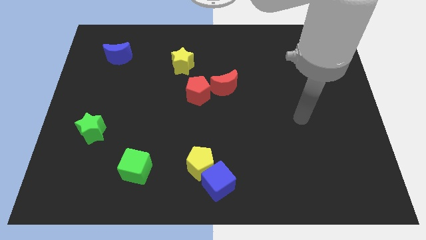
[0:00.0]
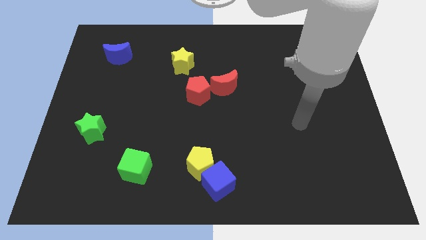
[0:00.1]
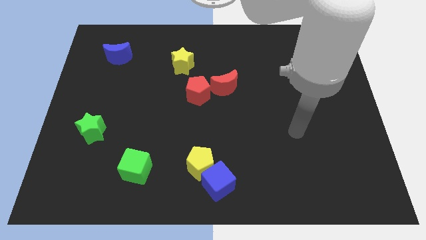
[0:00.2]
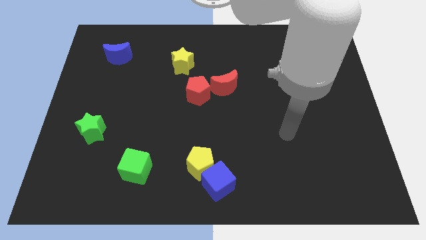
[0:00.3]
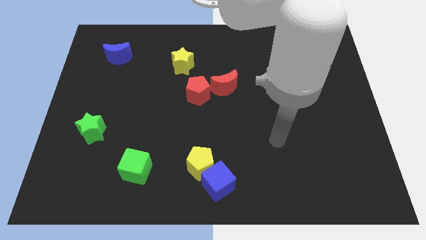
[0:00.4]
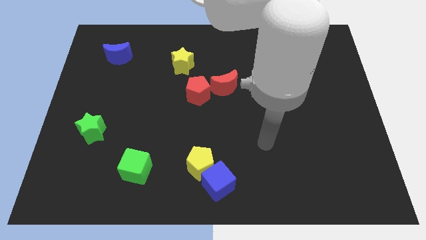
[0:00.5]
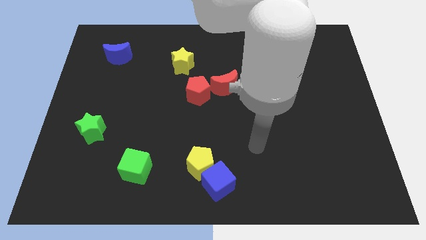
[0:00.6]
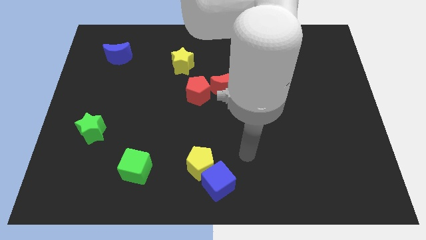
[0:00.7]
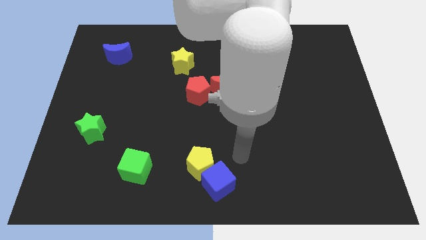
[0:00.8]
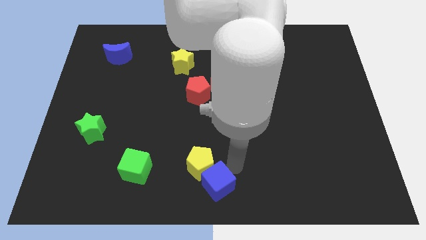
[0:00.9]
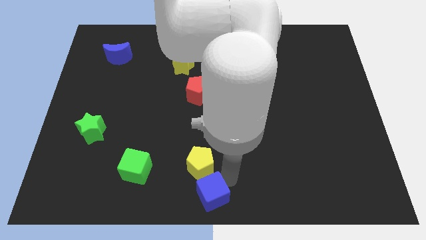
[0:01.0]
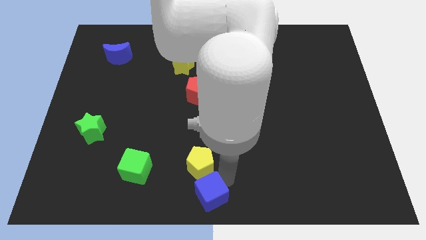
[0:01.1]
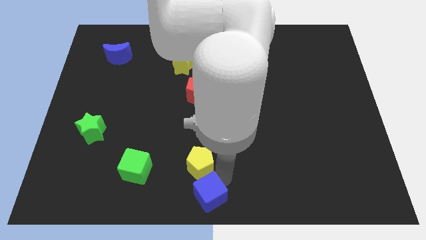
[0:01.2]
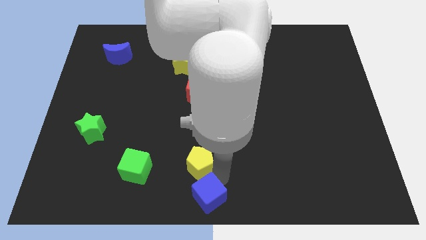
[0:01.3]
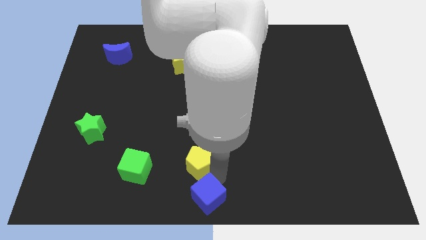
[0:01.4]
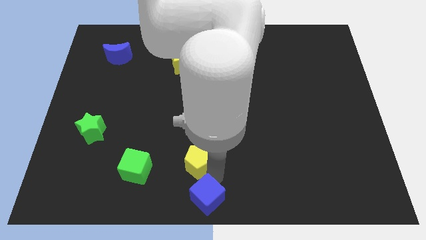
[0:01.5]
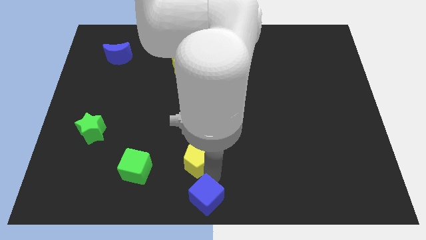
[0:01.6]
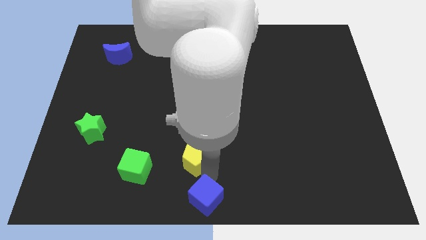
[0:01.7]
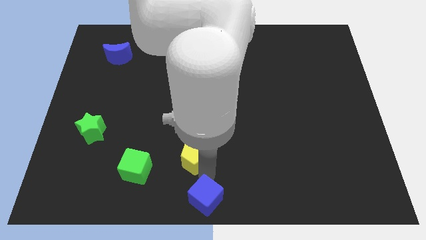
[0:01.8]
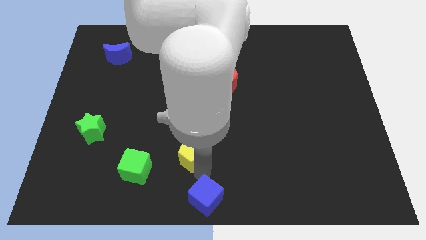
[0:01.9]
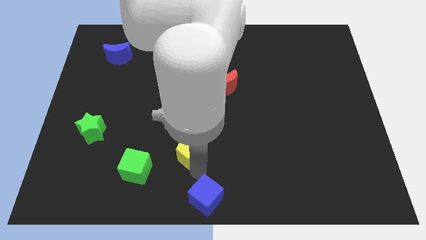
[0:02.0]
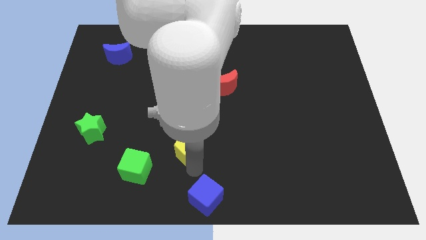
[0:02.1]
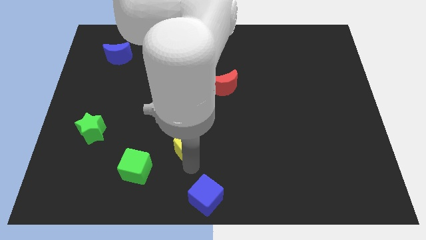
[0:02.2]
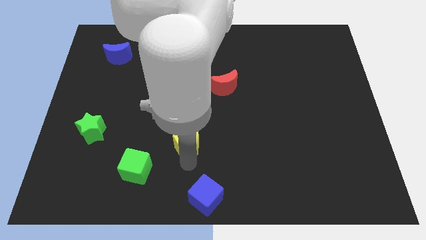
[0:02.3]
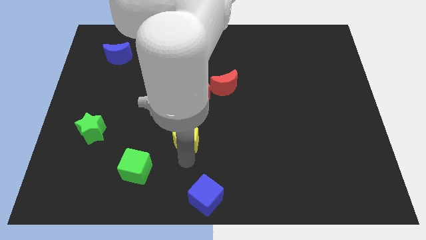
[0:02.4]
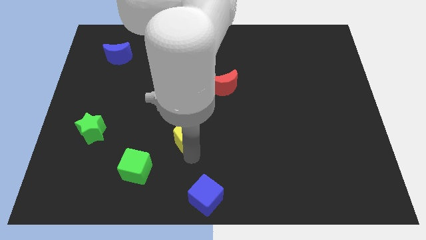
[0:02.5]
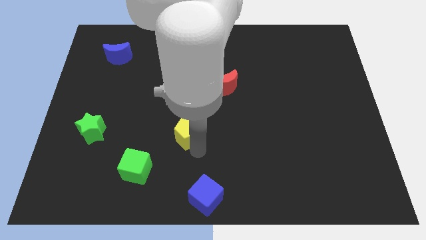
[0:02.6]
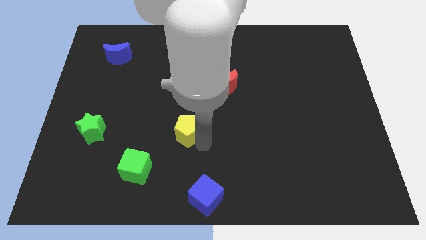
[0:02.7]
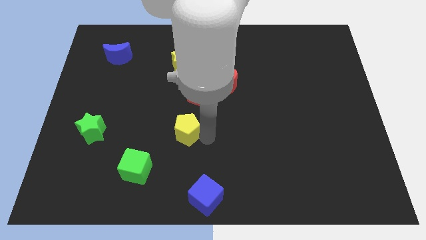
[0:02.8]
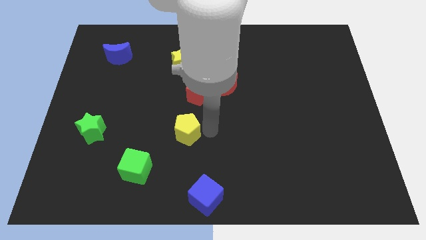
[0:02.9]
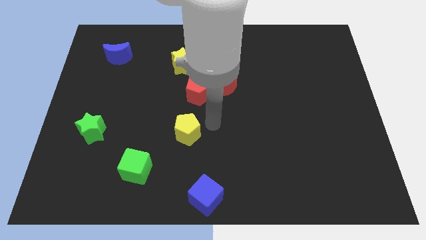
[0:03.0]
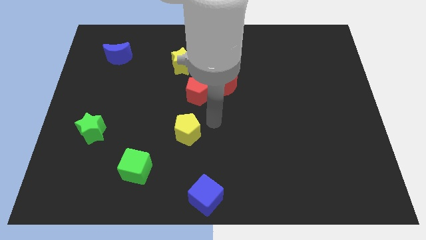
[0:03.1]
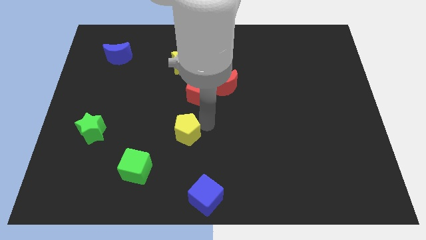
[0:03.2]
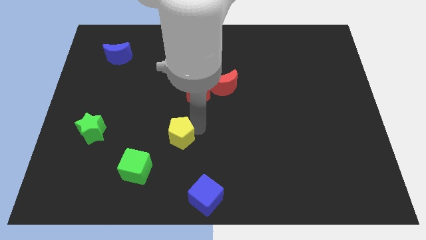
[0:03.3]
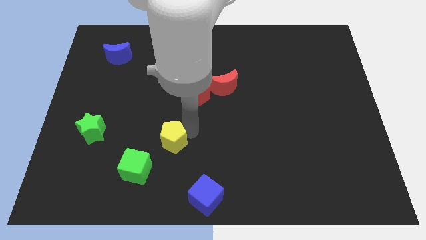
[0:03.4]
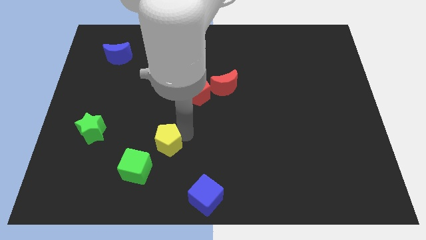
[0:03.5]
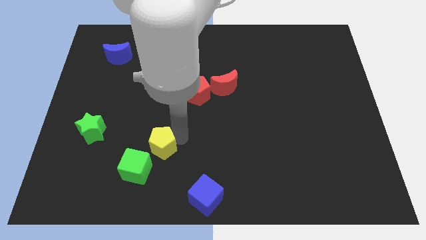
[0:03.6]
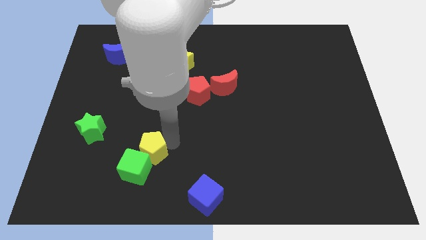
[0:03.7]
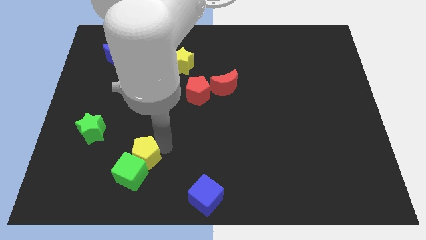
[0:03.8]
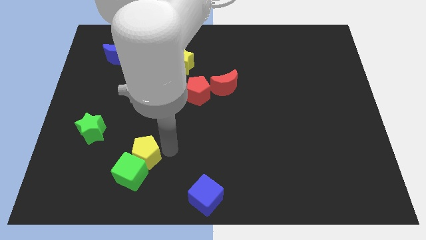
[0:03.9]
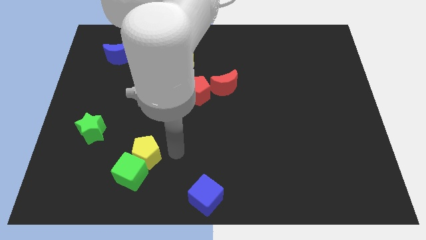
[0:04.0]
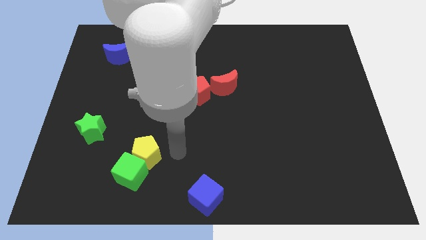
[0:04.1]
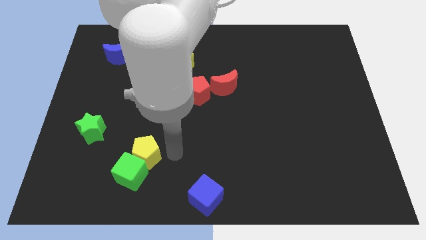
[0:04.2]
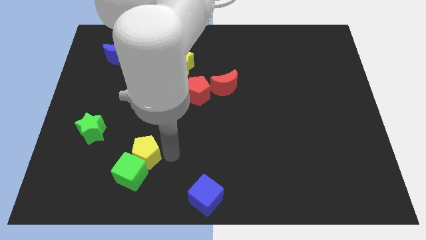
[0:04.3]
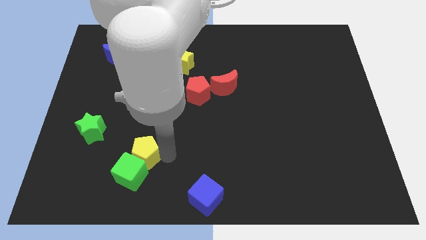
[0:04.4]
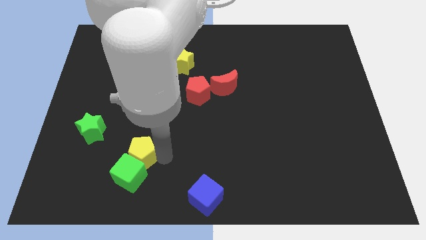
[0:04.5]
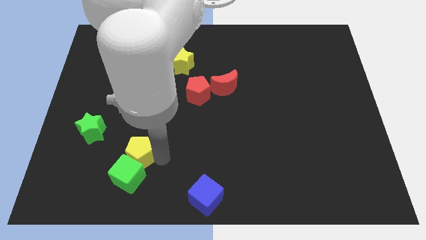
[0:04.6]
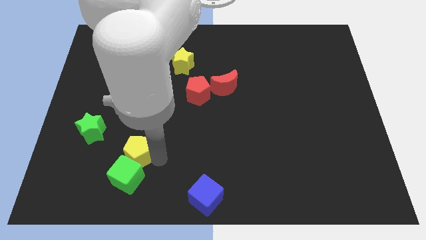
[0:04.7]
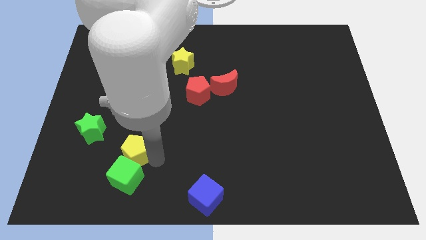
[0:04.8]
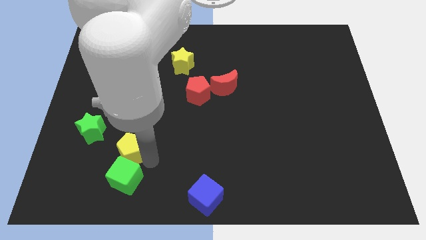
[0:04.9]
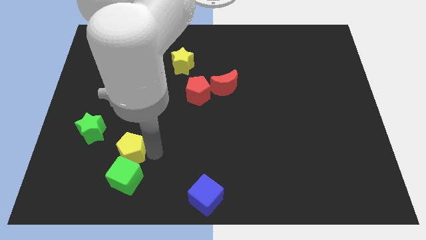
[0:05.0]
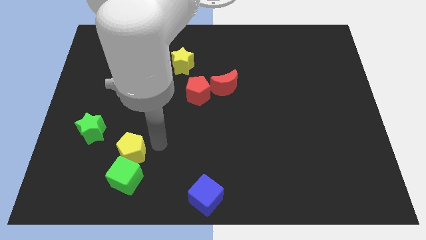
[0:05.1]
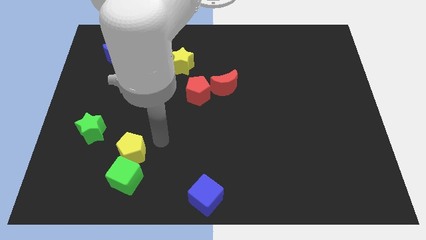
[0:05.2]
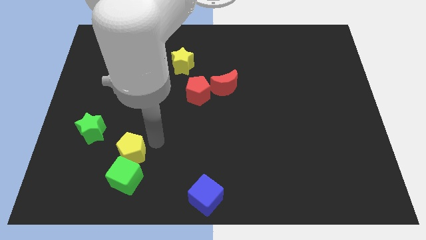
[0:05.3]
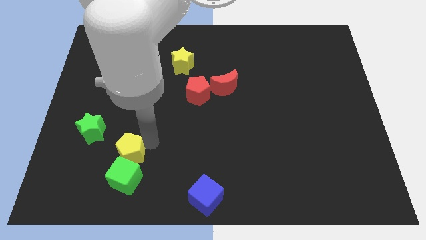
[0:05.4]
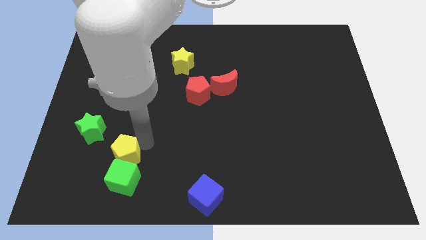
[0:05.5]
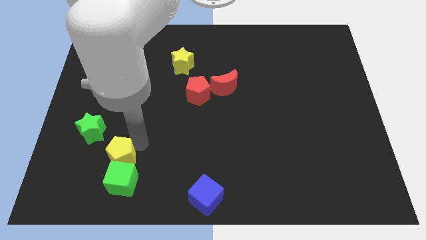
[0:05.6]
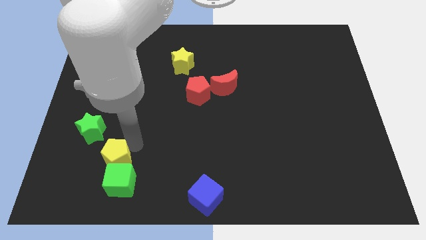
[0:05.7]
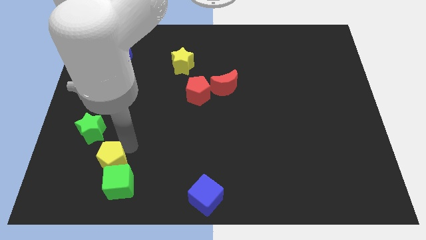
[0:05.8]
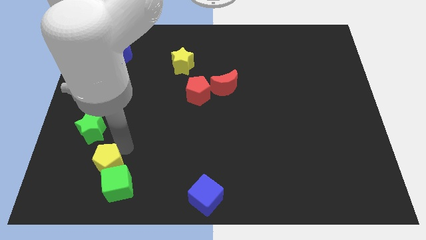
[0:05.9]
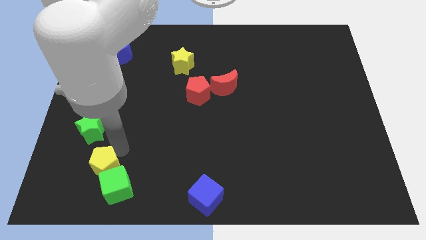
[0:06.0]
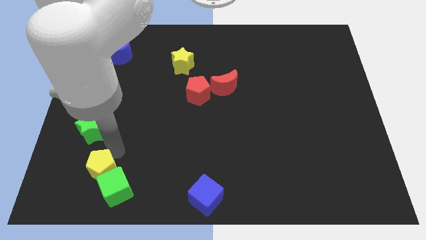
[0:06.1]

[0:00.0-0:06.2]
slide the yellow pentagon just left of the green cube
